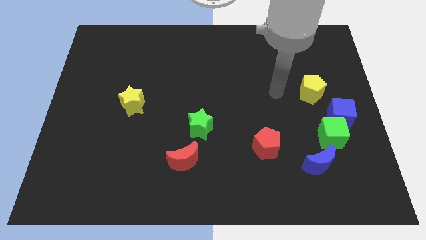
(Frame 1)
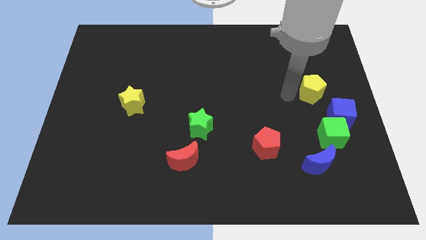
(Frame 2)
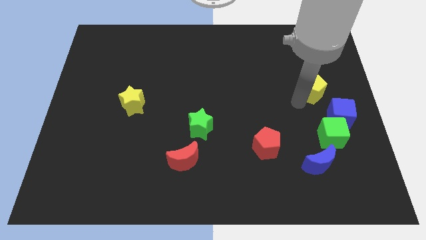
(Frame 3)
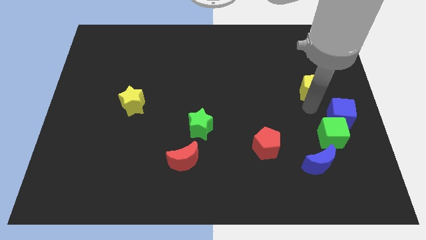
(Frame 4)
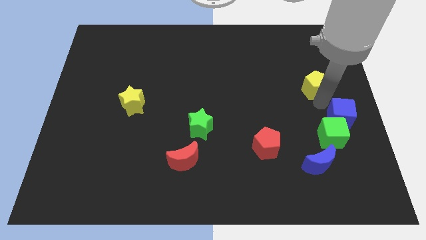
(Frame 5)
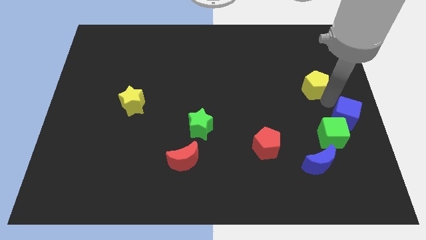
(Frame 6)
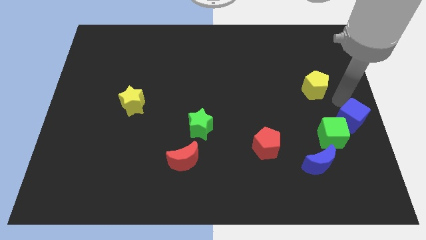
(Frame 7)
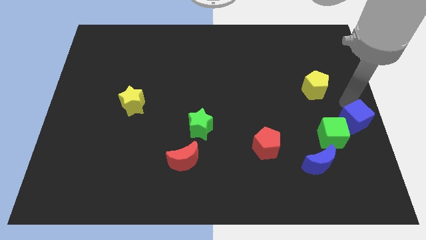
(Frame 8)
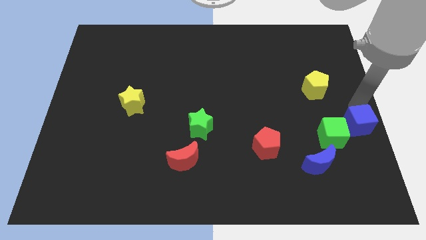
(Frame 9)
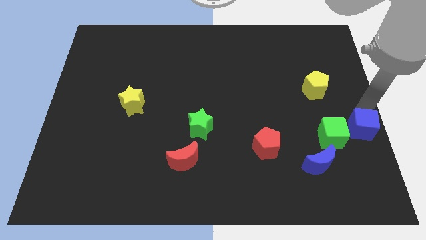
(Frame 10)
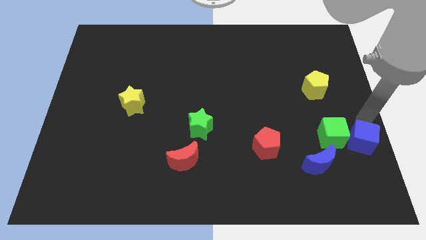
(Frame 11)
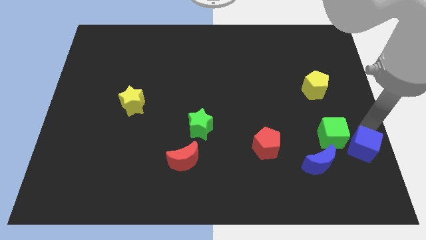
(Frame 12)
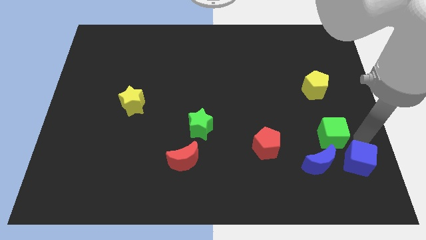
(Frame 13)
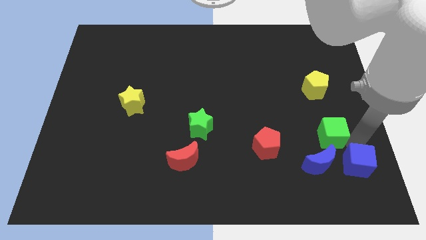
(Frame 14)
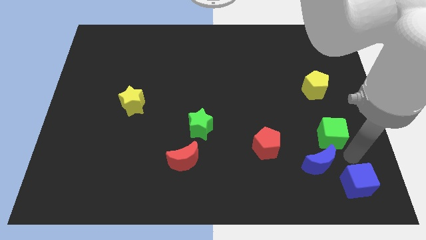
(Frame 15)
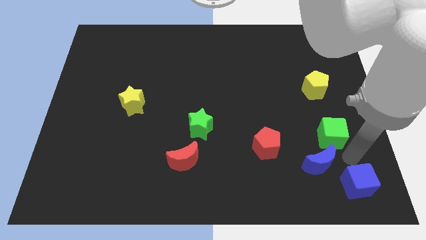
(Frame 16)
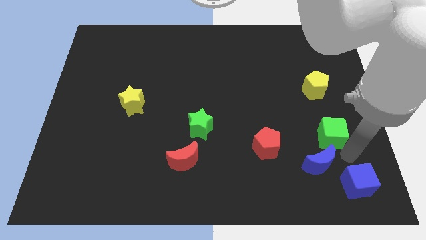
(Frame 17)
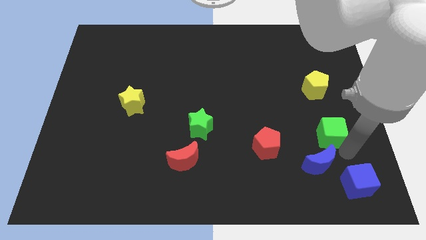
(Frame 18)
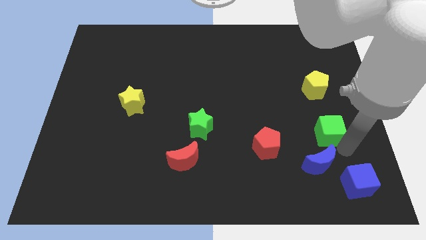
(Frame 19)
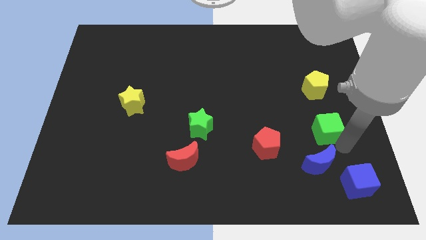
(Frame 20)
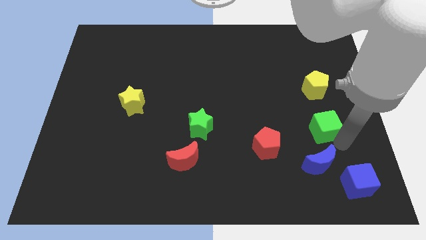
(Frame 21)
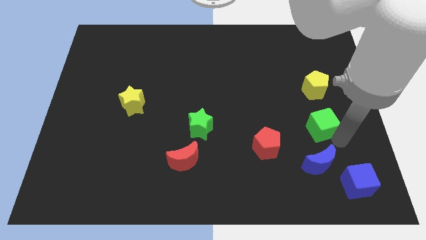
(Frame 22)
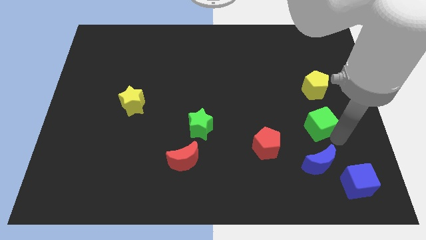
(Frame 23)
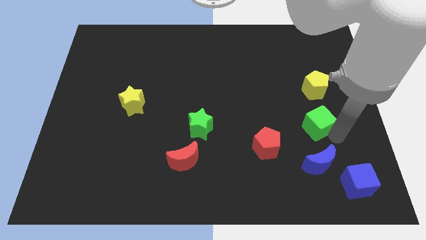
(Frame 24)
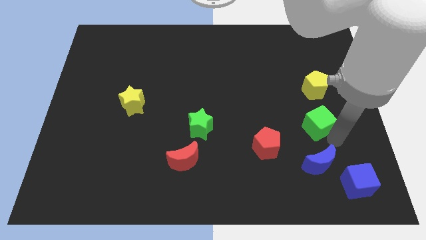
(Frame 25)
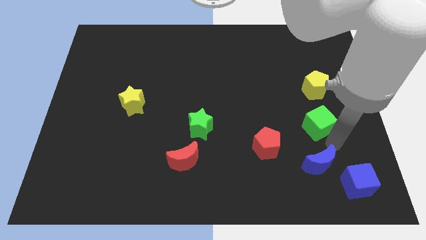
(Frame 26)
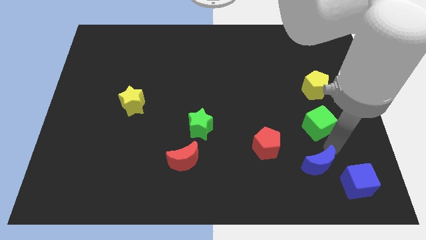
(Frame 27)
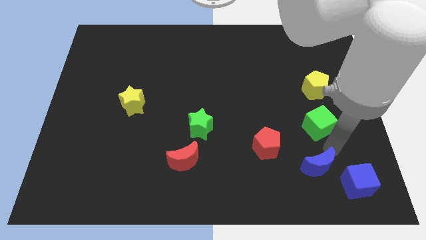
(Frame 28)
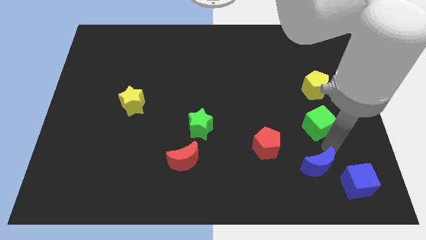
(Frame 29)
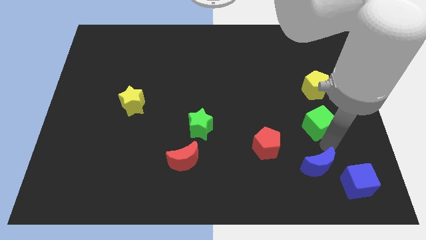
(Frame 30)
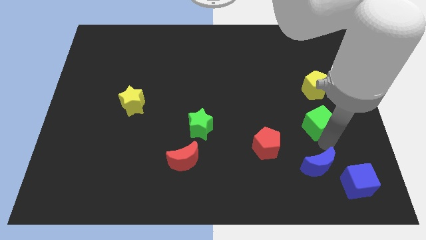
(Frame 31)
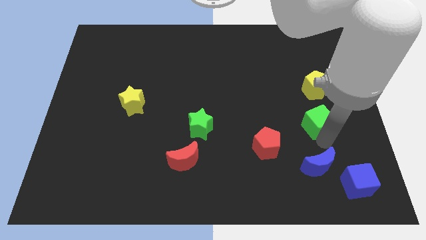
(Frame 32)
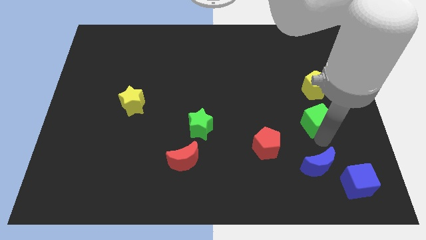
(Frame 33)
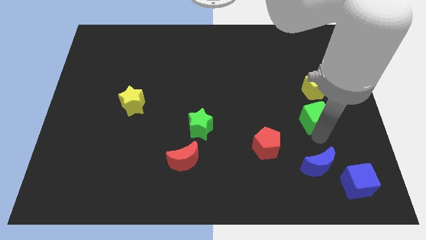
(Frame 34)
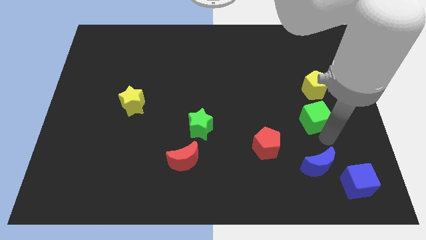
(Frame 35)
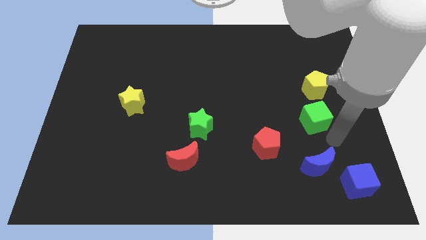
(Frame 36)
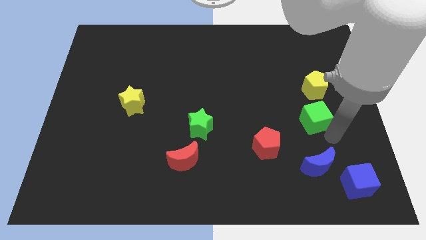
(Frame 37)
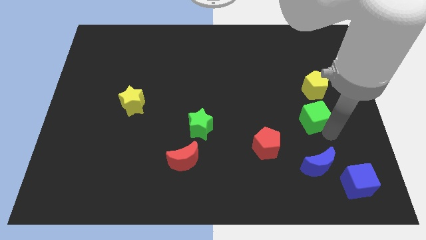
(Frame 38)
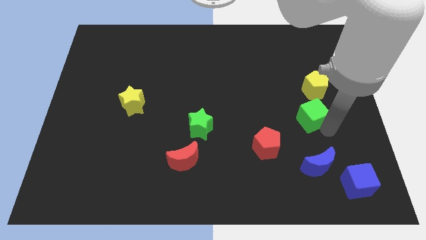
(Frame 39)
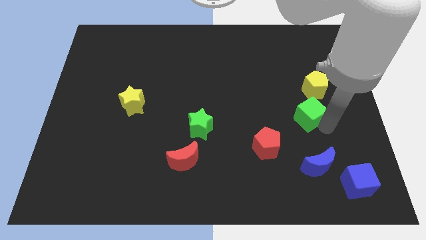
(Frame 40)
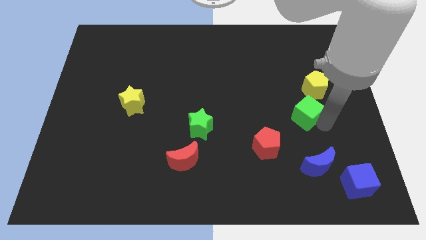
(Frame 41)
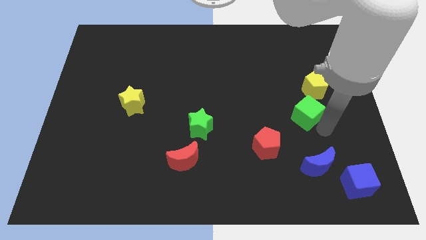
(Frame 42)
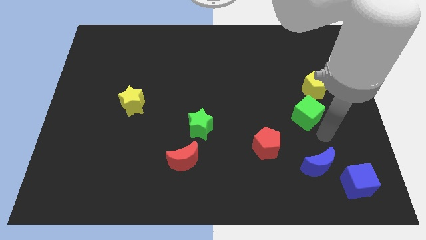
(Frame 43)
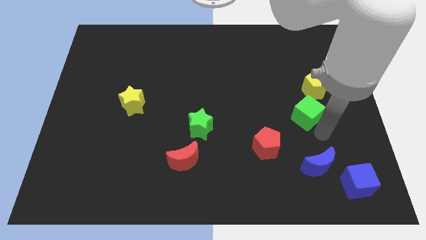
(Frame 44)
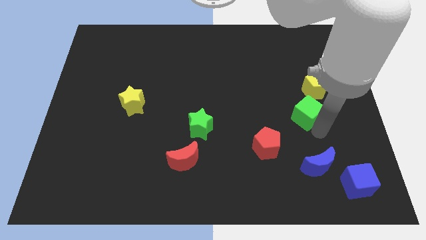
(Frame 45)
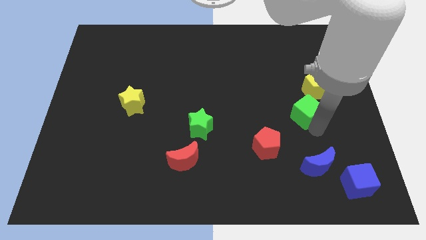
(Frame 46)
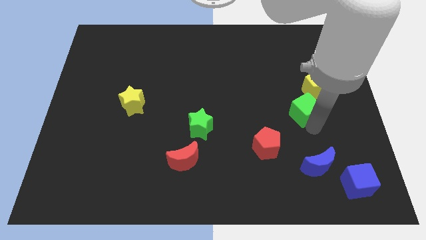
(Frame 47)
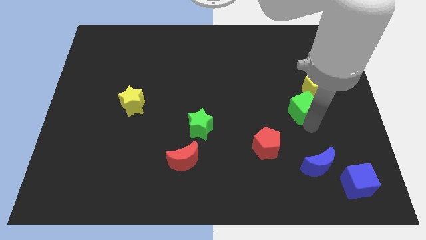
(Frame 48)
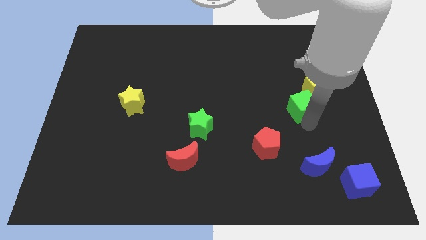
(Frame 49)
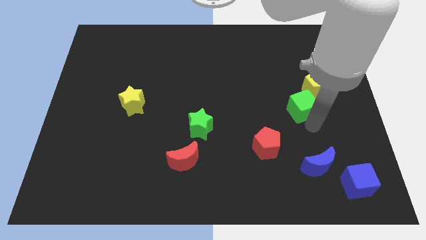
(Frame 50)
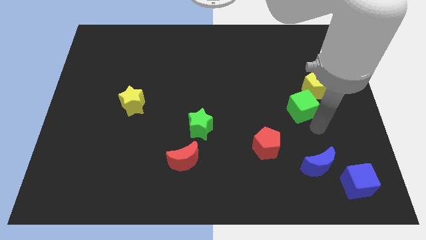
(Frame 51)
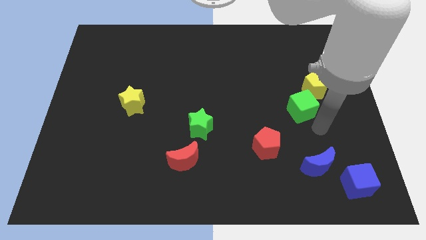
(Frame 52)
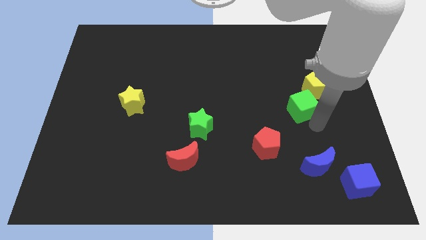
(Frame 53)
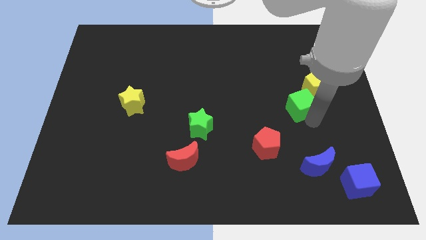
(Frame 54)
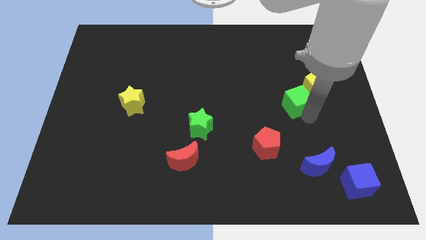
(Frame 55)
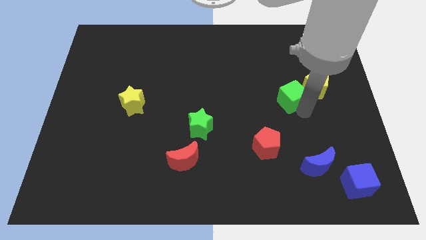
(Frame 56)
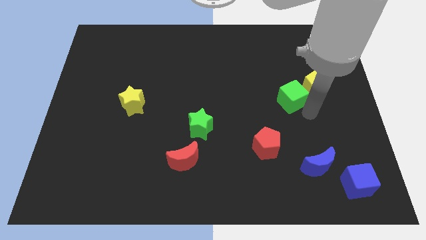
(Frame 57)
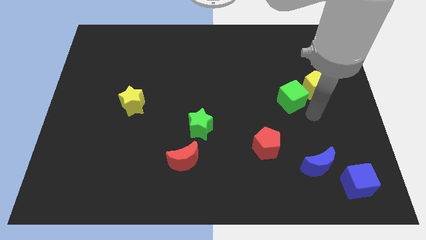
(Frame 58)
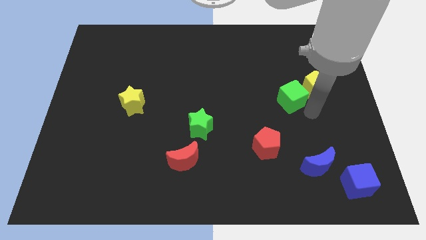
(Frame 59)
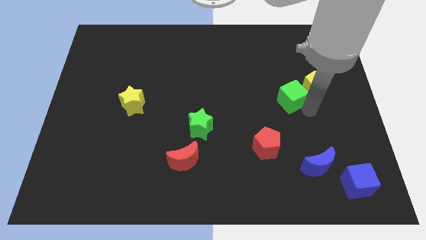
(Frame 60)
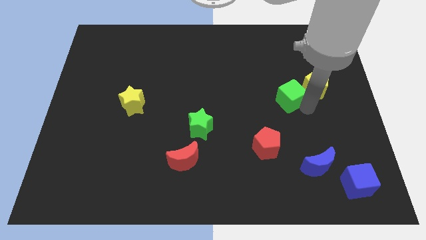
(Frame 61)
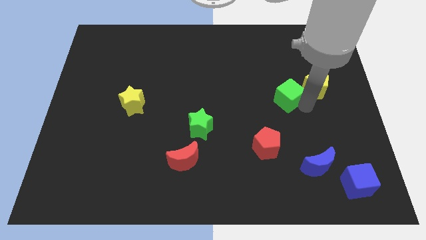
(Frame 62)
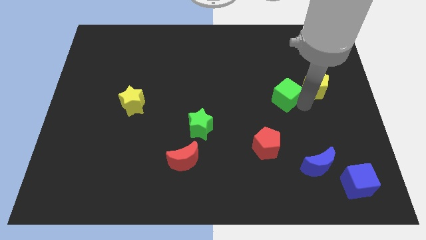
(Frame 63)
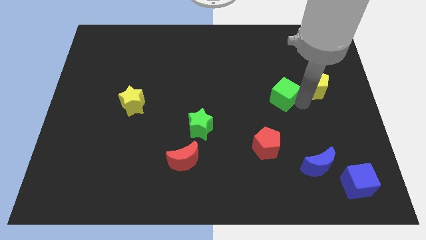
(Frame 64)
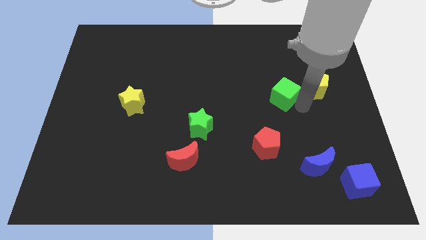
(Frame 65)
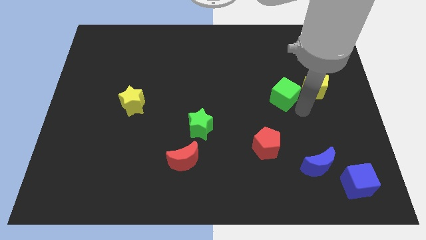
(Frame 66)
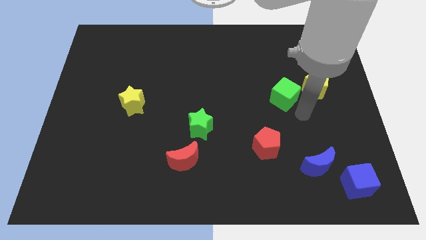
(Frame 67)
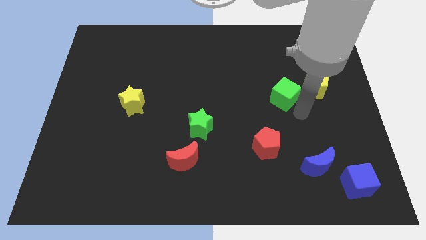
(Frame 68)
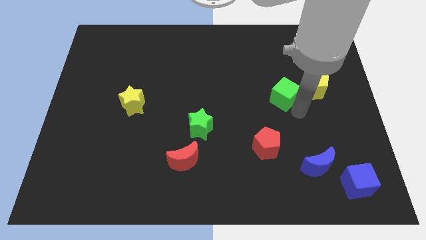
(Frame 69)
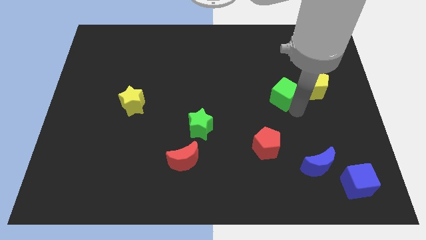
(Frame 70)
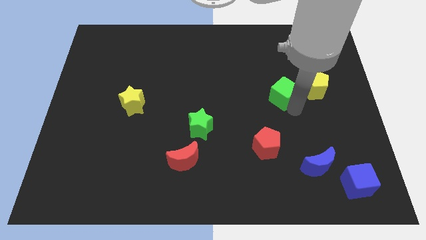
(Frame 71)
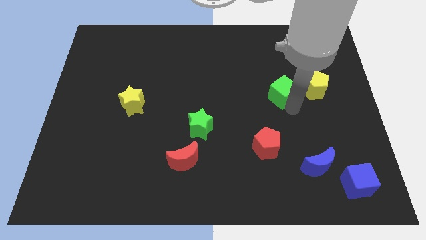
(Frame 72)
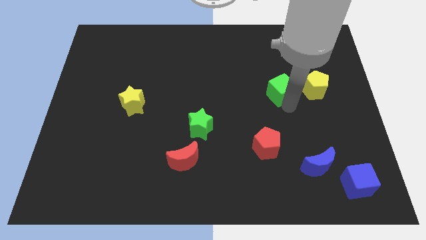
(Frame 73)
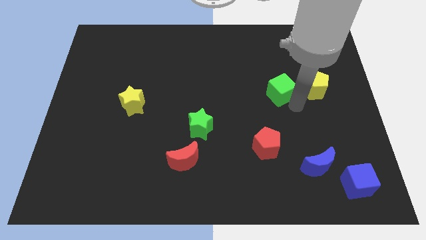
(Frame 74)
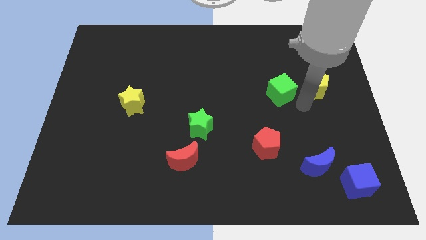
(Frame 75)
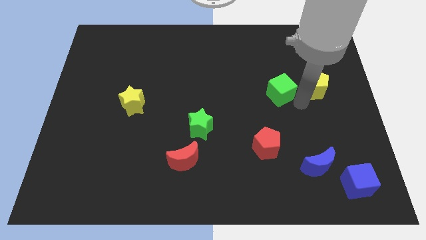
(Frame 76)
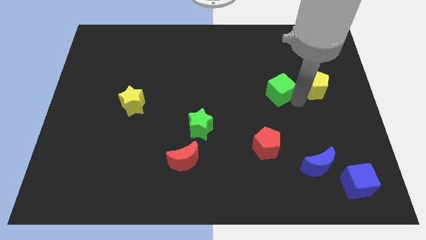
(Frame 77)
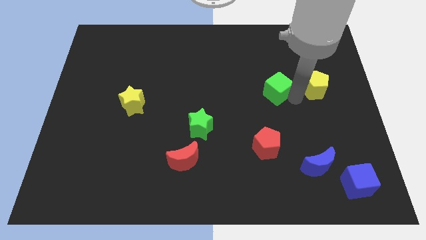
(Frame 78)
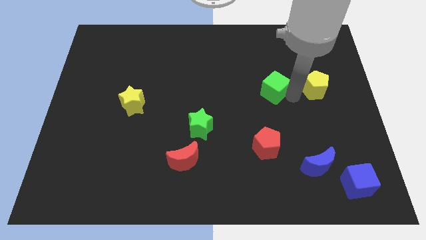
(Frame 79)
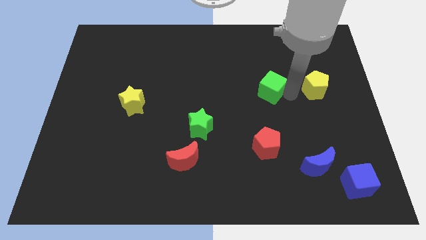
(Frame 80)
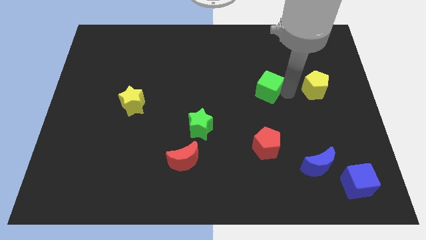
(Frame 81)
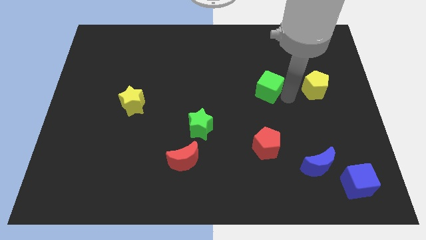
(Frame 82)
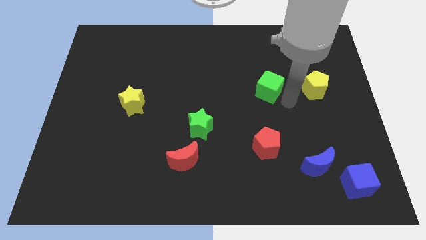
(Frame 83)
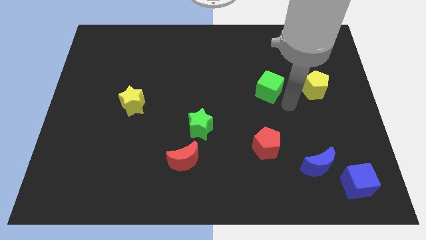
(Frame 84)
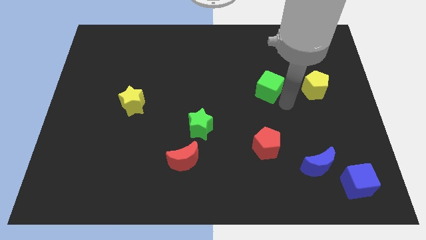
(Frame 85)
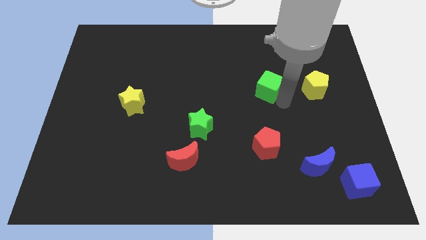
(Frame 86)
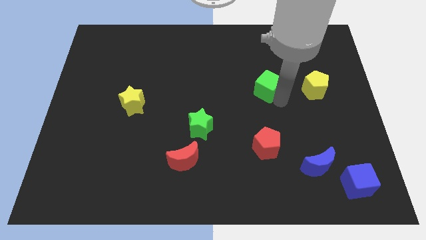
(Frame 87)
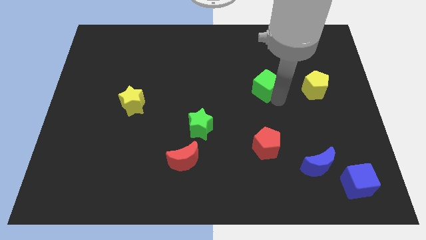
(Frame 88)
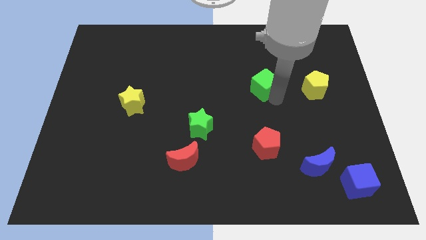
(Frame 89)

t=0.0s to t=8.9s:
slide the green cube up and to the left
